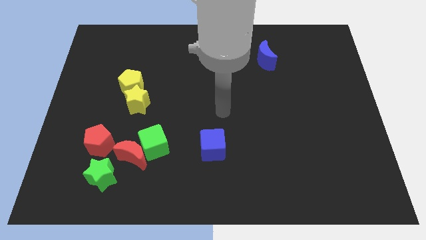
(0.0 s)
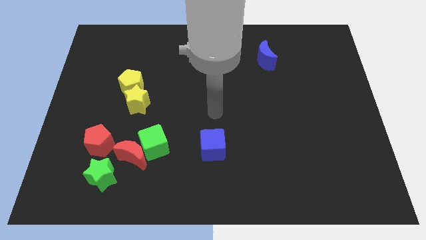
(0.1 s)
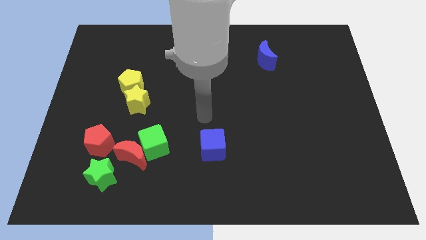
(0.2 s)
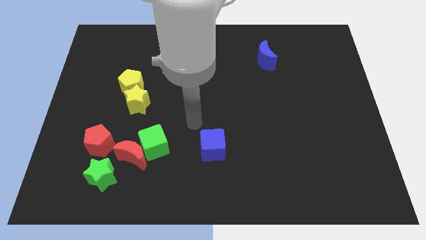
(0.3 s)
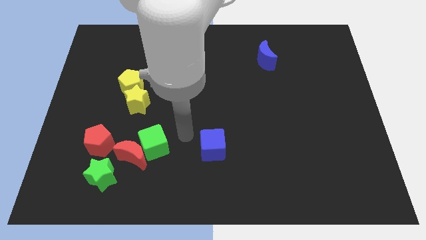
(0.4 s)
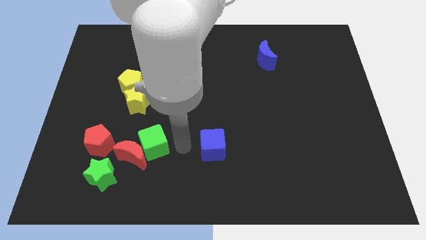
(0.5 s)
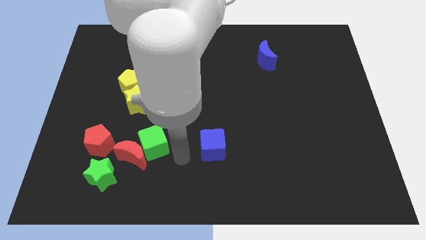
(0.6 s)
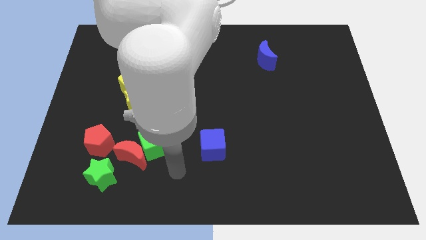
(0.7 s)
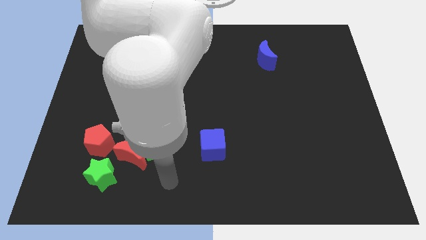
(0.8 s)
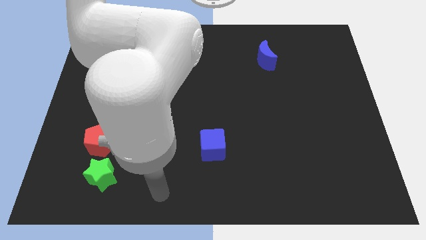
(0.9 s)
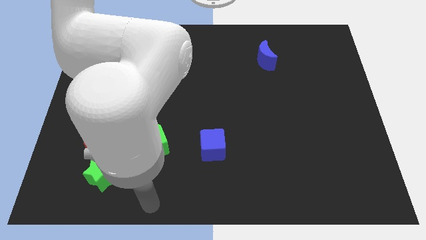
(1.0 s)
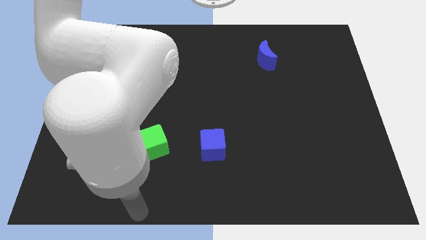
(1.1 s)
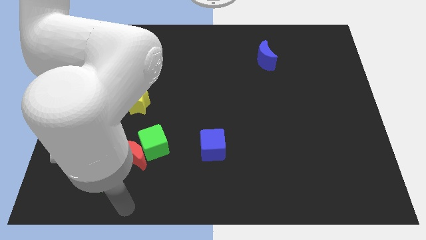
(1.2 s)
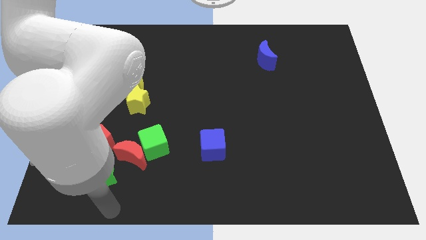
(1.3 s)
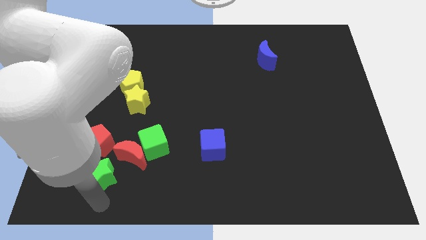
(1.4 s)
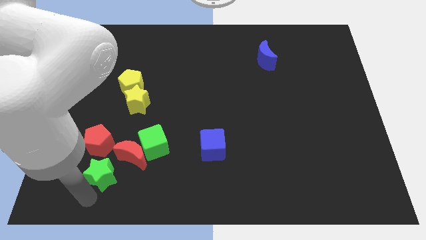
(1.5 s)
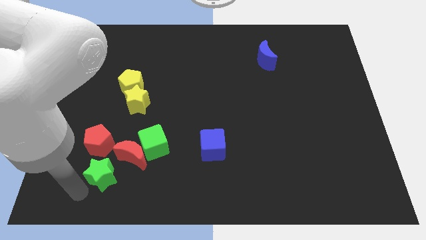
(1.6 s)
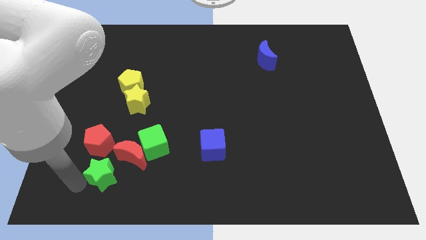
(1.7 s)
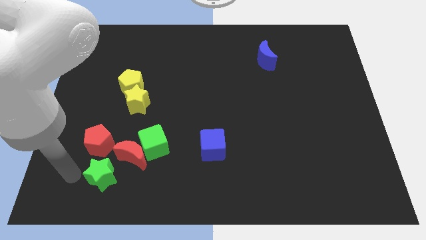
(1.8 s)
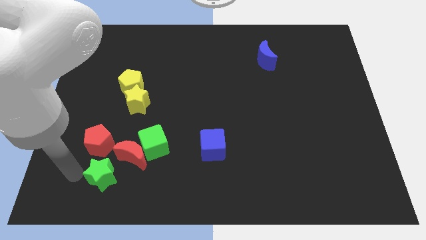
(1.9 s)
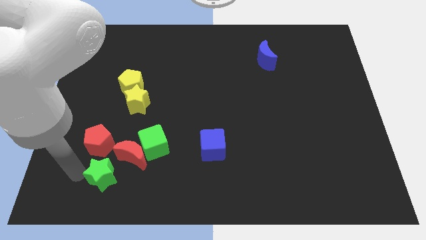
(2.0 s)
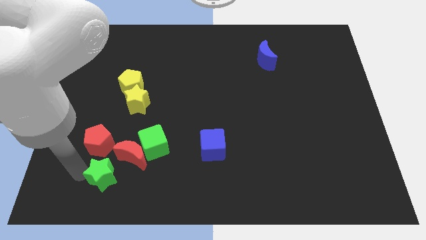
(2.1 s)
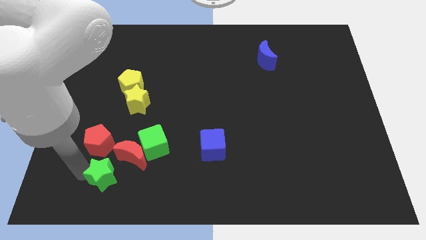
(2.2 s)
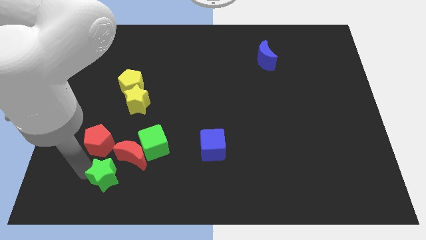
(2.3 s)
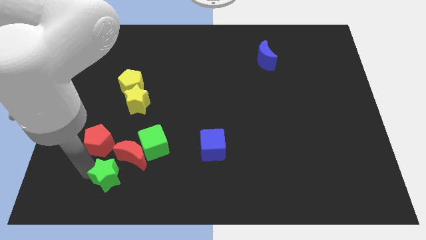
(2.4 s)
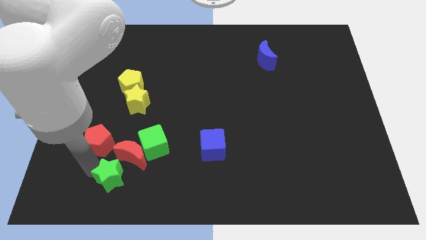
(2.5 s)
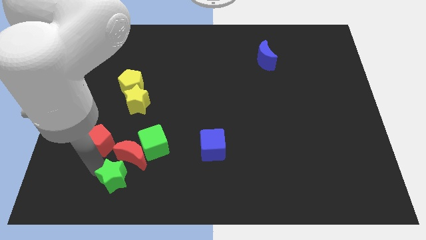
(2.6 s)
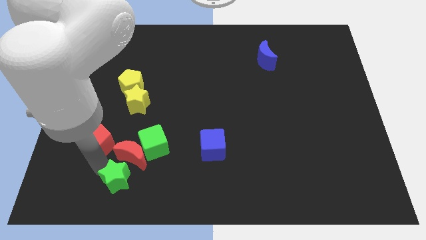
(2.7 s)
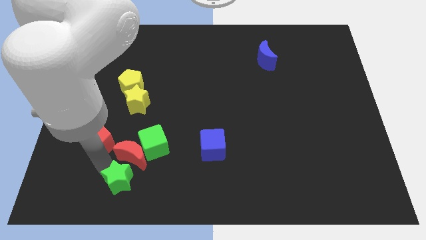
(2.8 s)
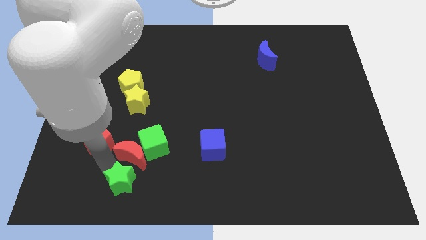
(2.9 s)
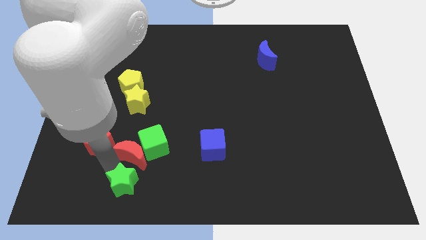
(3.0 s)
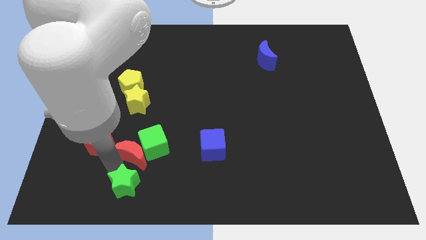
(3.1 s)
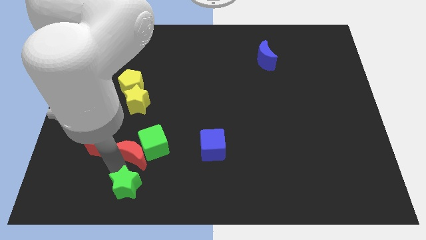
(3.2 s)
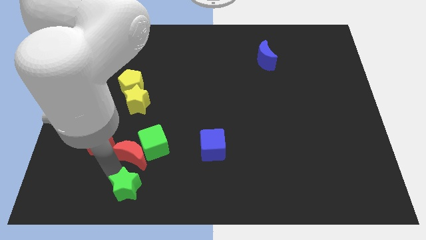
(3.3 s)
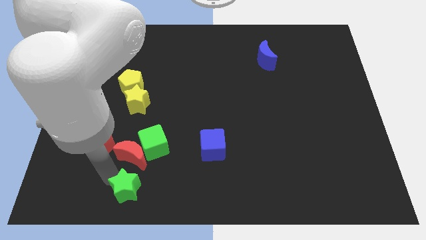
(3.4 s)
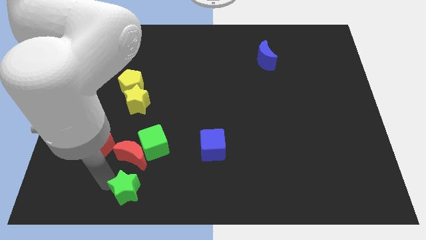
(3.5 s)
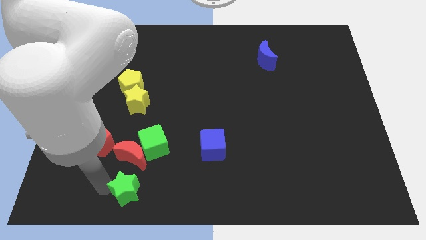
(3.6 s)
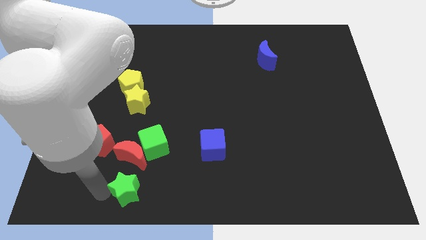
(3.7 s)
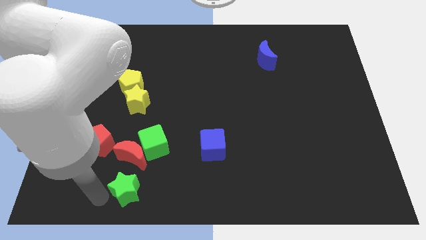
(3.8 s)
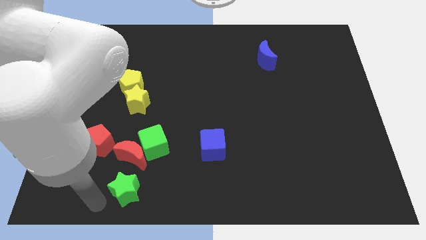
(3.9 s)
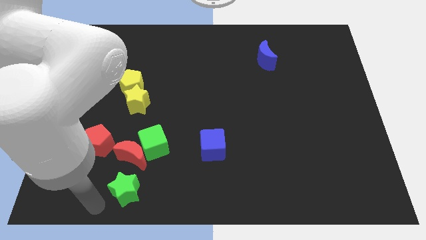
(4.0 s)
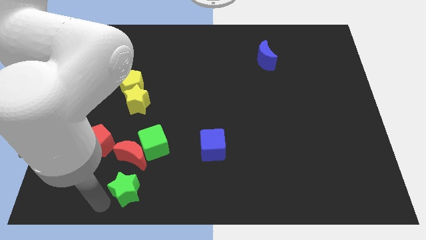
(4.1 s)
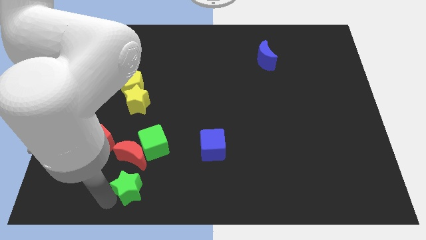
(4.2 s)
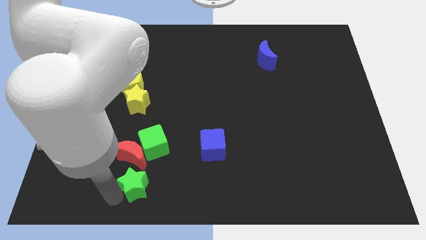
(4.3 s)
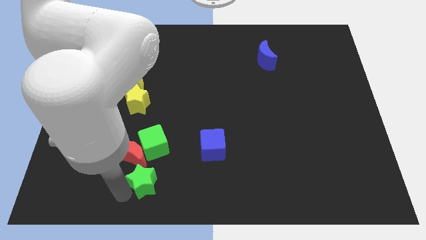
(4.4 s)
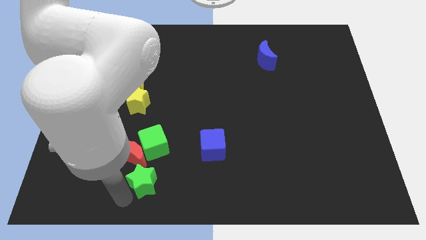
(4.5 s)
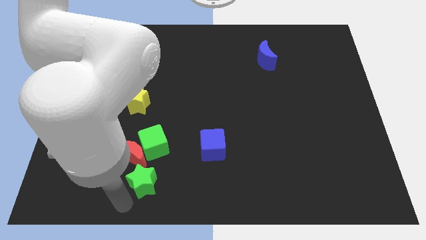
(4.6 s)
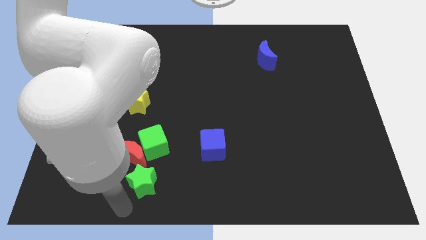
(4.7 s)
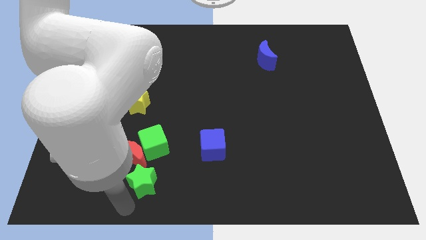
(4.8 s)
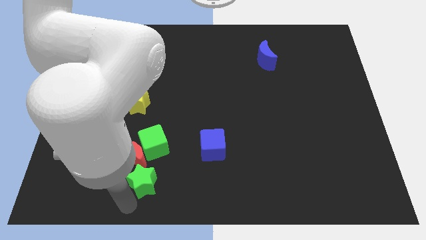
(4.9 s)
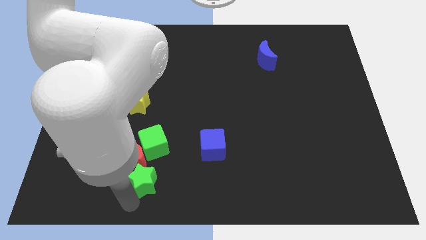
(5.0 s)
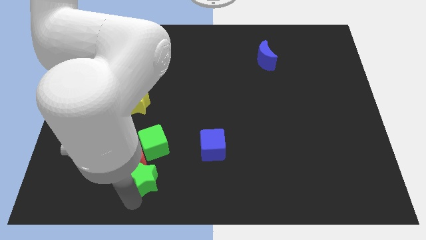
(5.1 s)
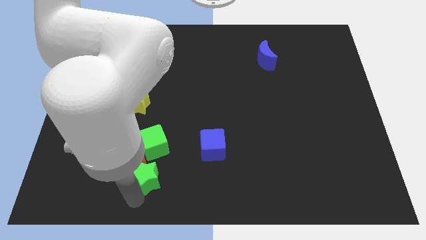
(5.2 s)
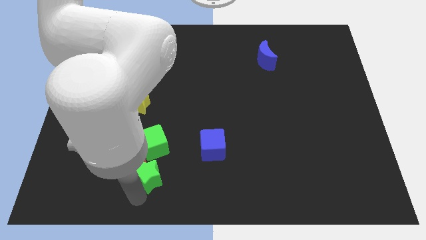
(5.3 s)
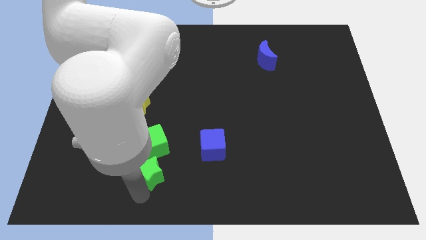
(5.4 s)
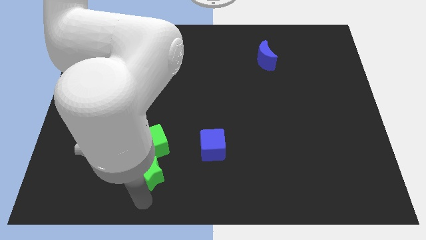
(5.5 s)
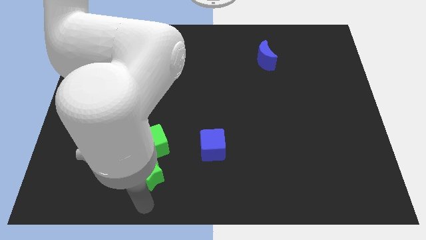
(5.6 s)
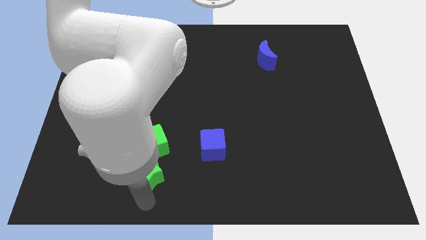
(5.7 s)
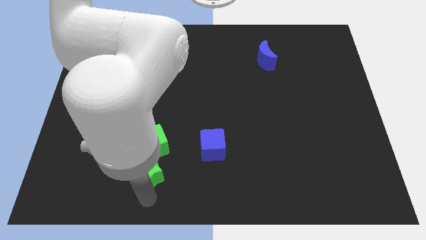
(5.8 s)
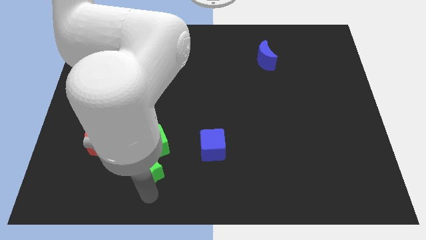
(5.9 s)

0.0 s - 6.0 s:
put the green star towards the green cube

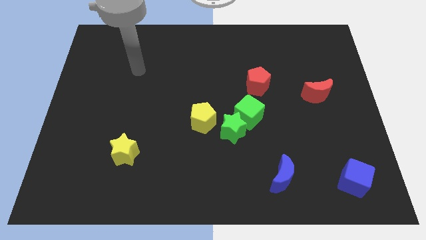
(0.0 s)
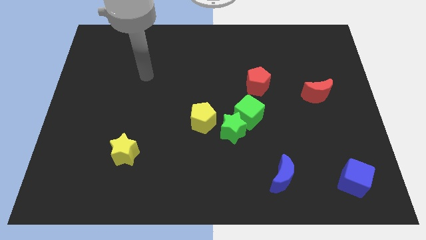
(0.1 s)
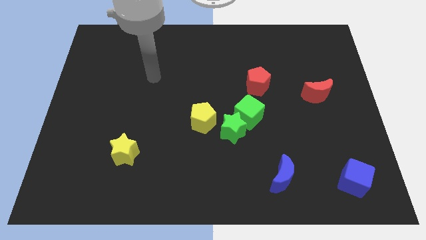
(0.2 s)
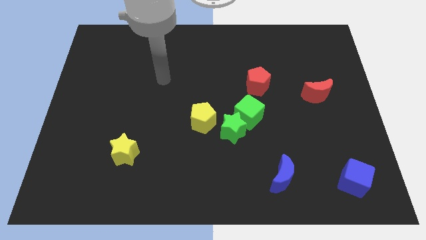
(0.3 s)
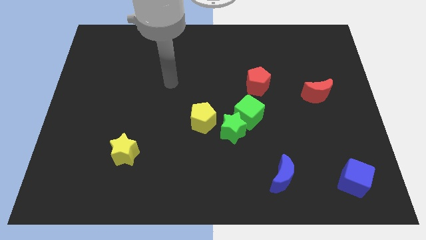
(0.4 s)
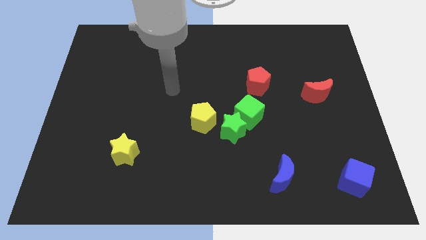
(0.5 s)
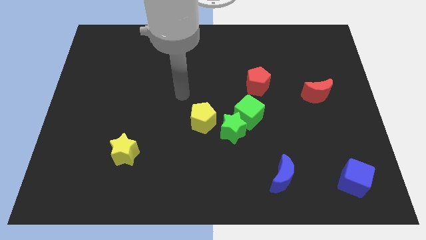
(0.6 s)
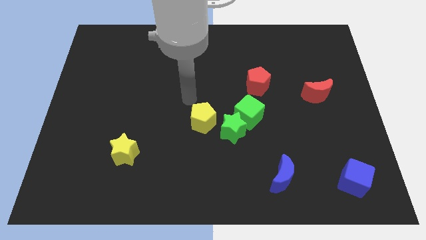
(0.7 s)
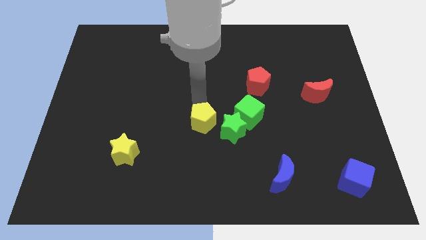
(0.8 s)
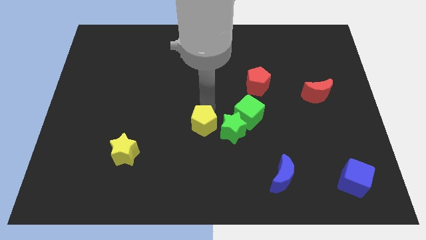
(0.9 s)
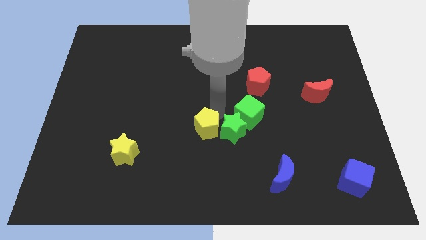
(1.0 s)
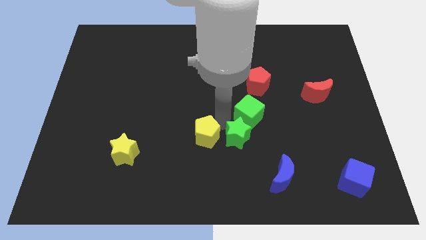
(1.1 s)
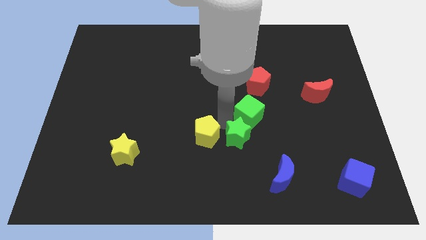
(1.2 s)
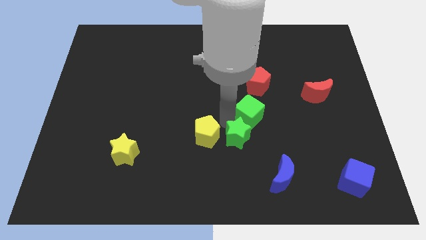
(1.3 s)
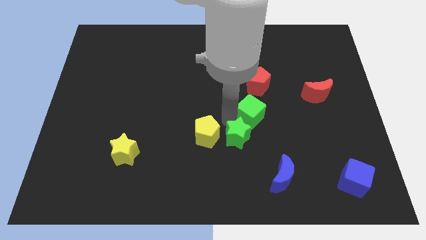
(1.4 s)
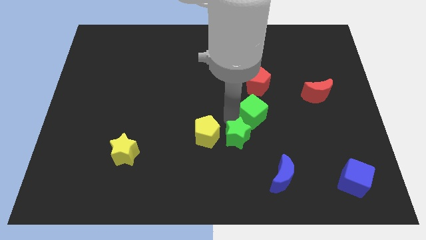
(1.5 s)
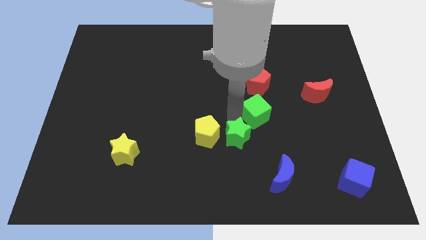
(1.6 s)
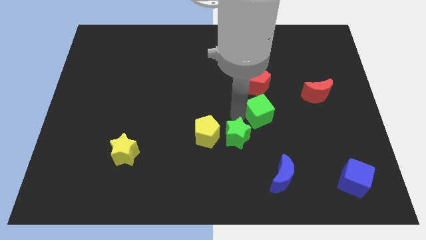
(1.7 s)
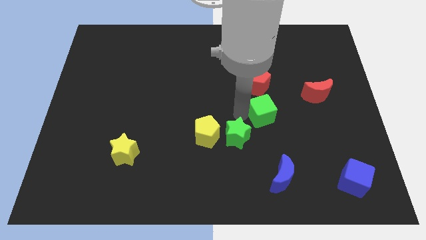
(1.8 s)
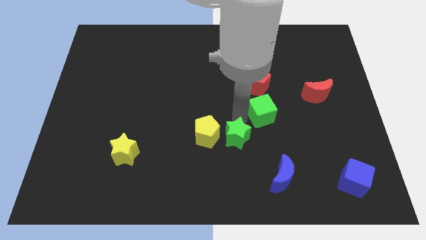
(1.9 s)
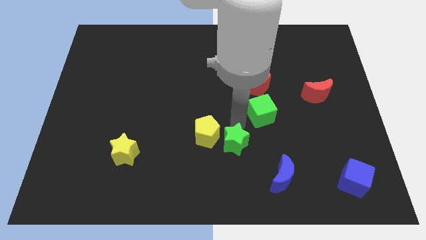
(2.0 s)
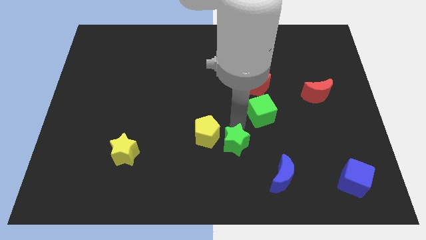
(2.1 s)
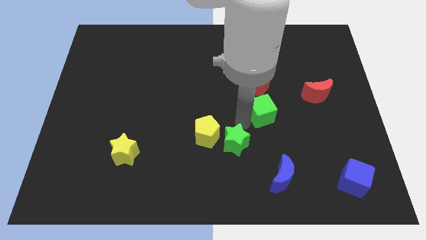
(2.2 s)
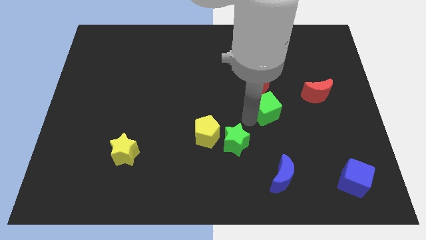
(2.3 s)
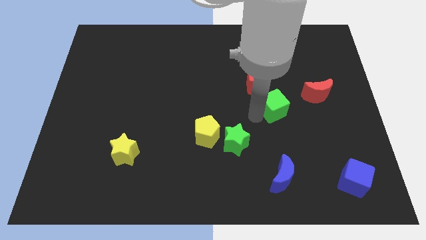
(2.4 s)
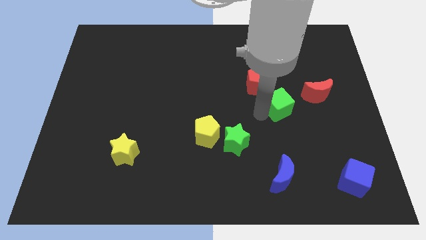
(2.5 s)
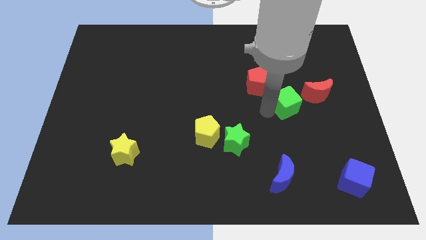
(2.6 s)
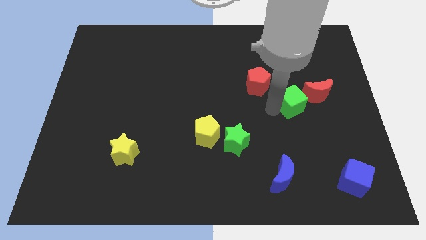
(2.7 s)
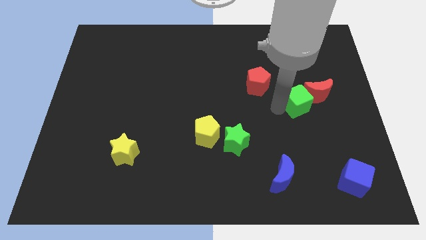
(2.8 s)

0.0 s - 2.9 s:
put the green cube close to the red moon
